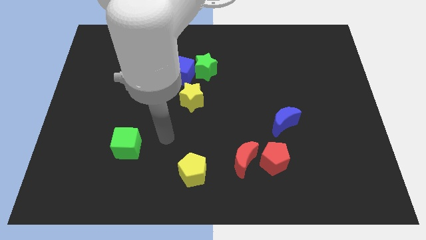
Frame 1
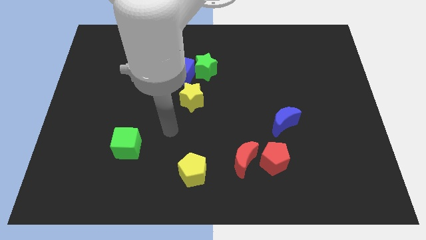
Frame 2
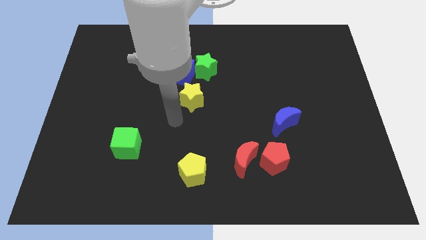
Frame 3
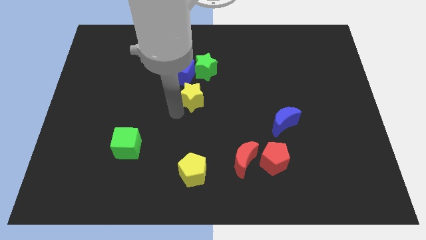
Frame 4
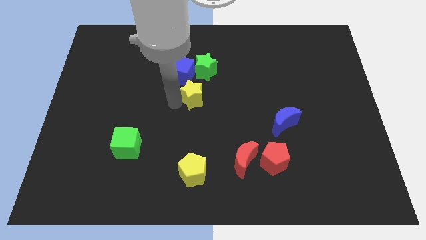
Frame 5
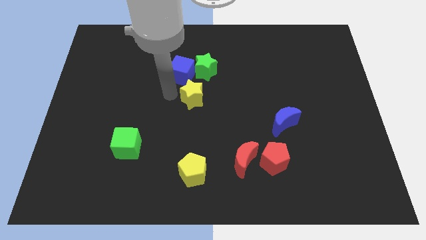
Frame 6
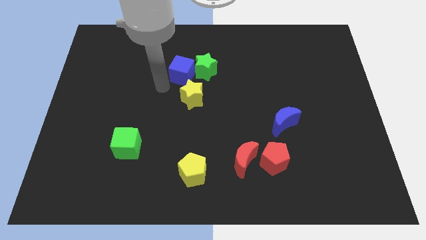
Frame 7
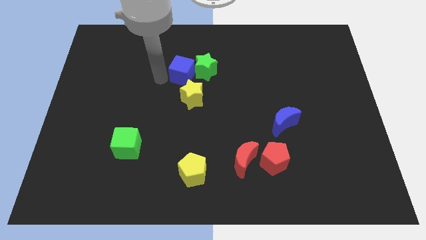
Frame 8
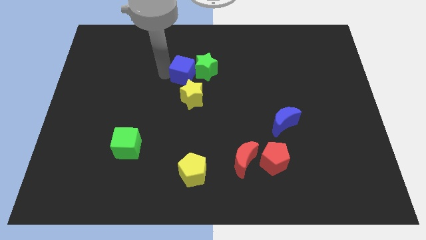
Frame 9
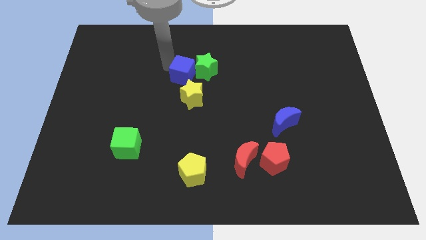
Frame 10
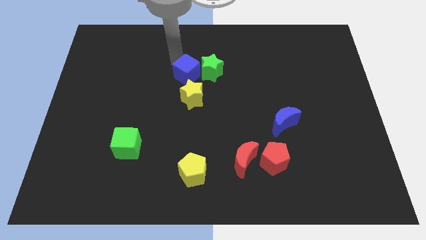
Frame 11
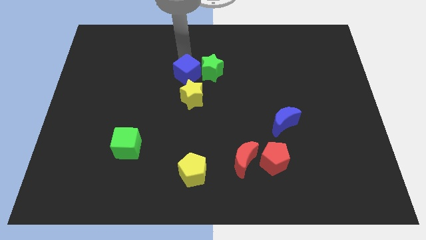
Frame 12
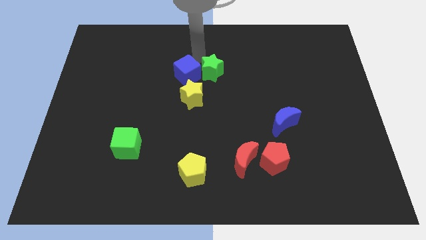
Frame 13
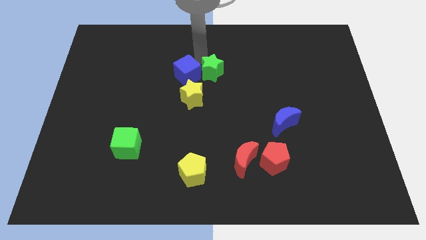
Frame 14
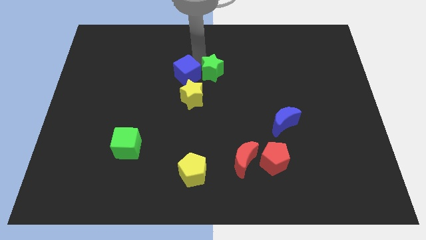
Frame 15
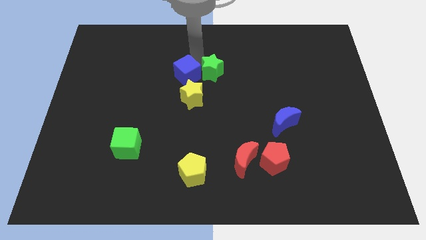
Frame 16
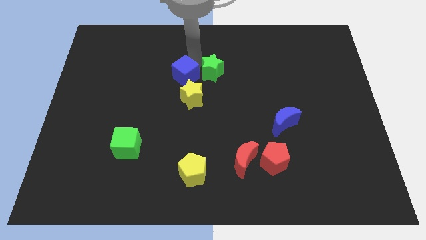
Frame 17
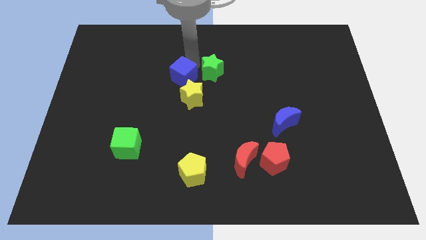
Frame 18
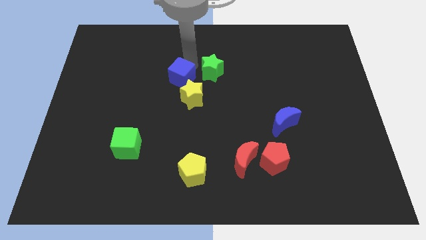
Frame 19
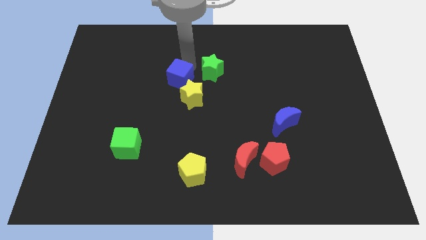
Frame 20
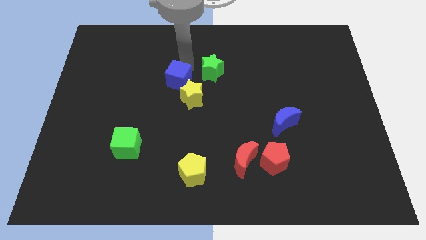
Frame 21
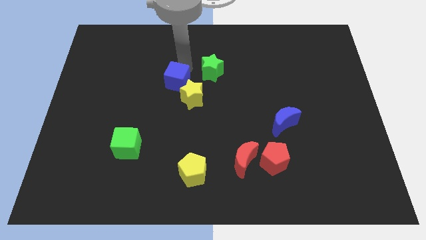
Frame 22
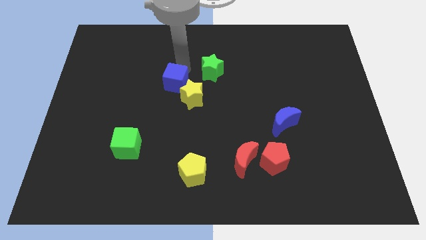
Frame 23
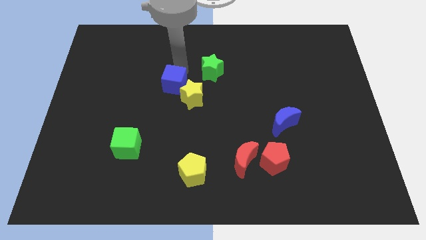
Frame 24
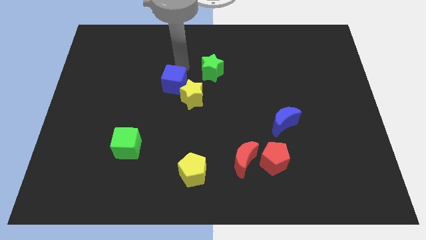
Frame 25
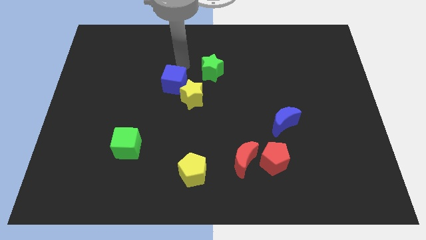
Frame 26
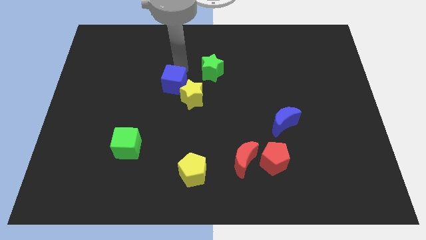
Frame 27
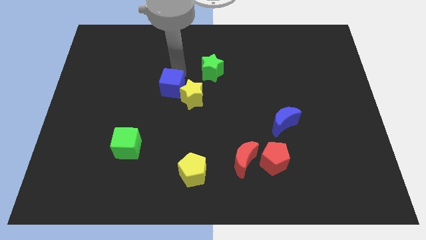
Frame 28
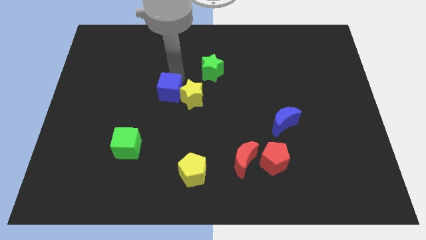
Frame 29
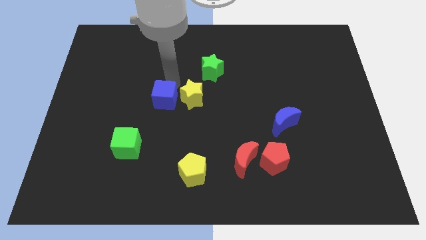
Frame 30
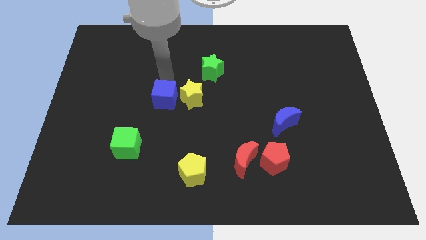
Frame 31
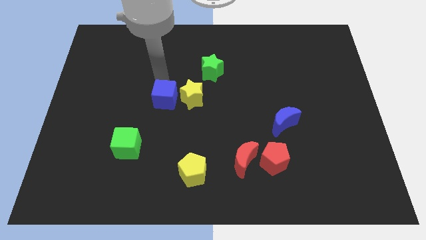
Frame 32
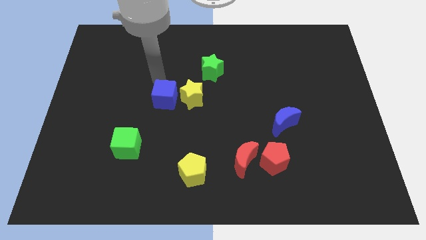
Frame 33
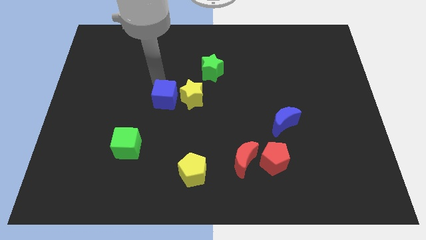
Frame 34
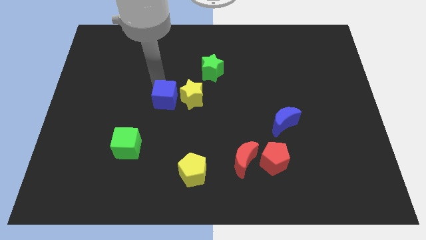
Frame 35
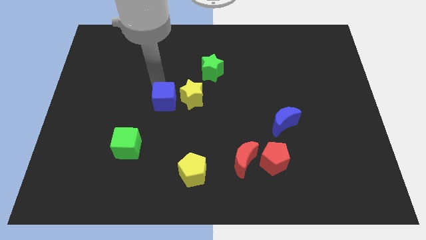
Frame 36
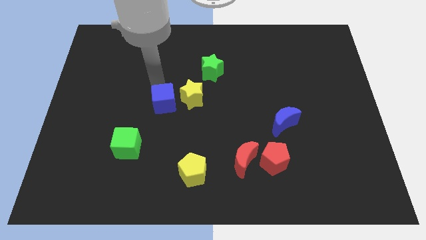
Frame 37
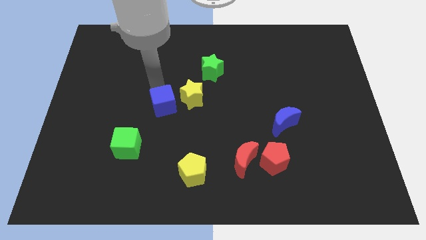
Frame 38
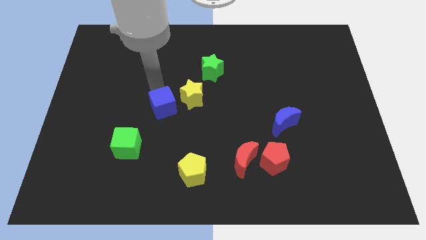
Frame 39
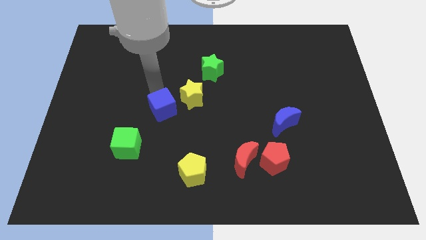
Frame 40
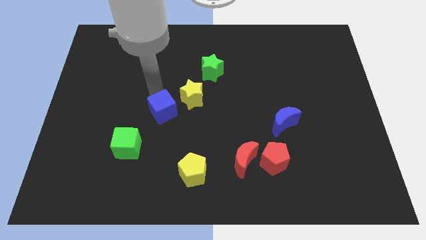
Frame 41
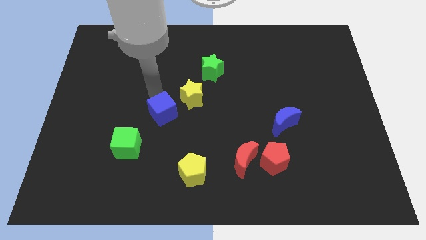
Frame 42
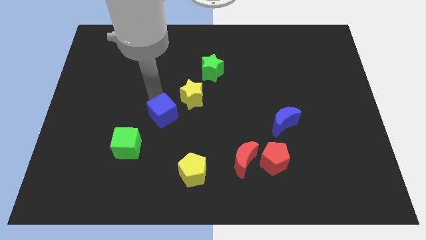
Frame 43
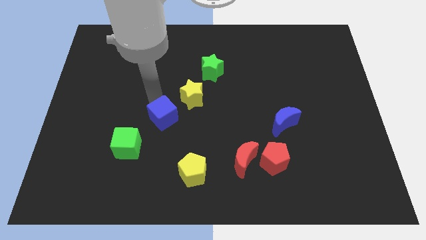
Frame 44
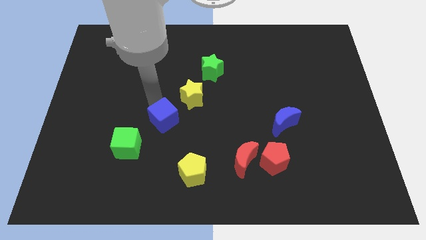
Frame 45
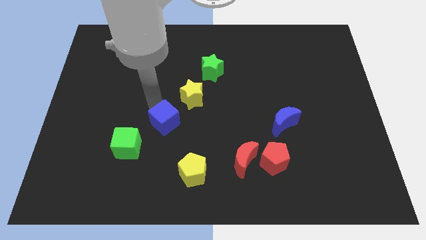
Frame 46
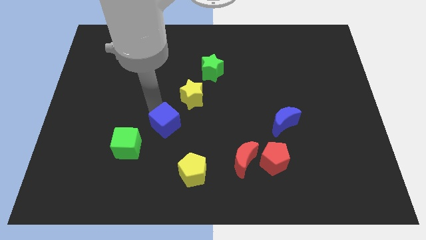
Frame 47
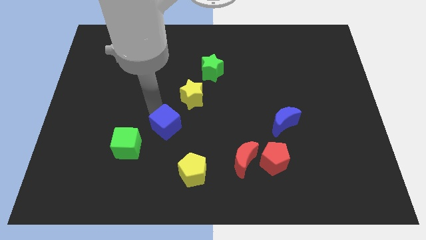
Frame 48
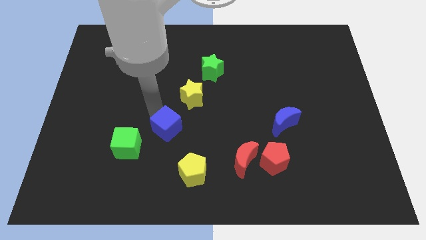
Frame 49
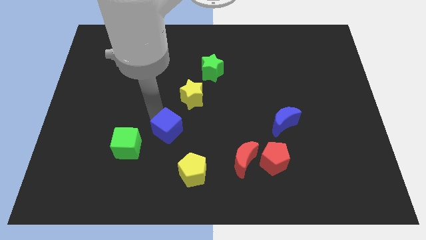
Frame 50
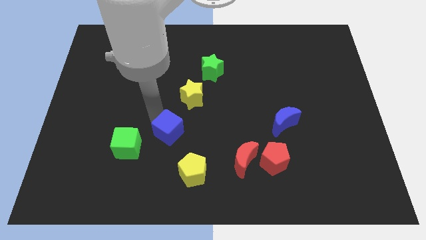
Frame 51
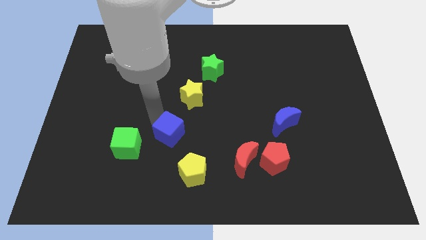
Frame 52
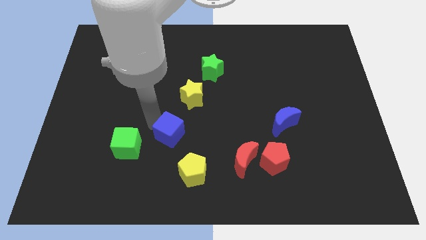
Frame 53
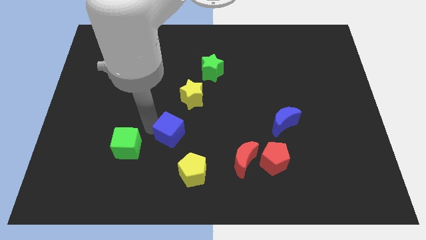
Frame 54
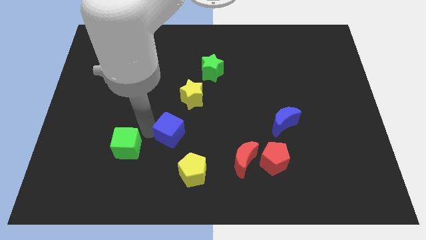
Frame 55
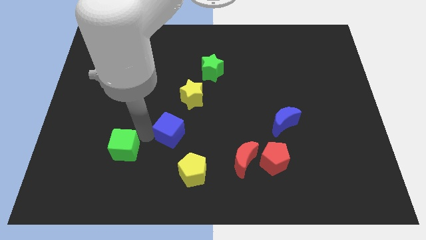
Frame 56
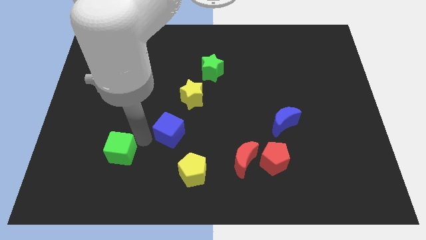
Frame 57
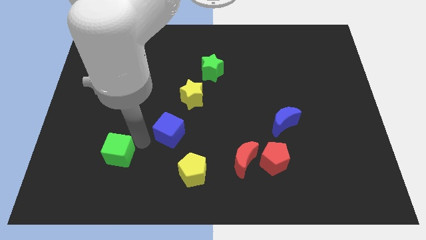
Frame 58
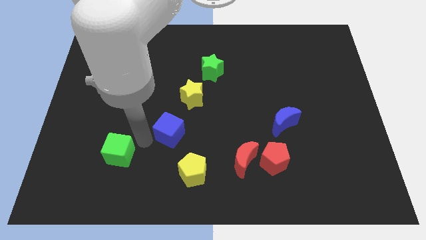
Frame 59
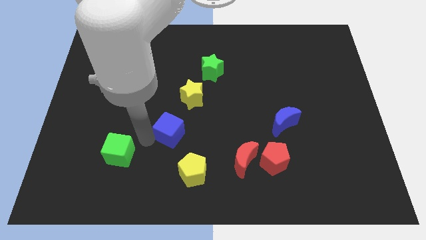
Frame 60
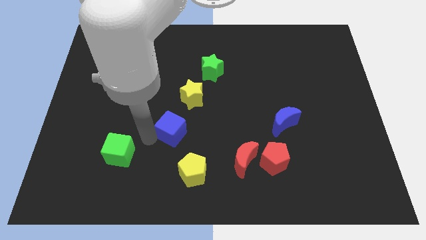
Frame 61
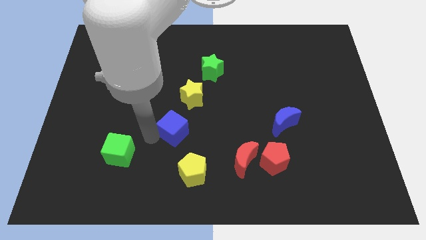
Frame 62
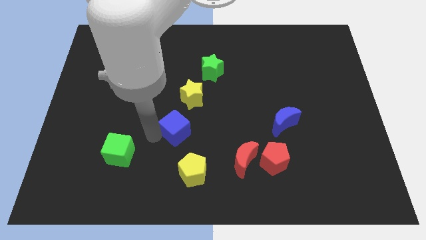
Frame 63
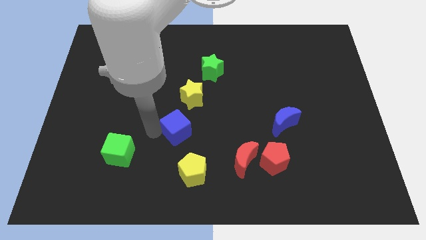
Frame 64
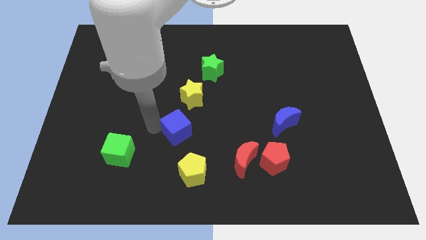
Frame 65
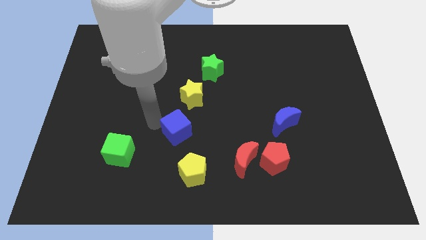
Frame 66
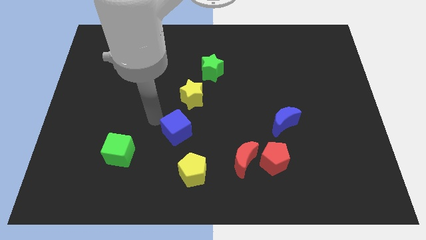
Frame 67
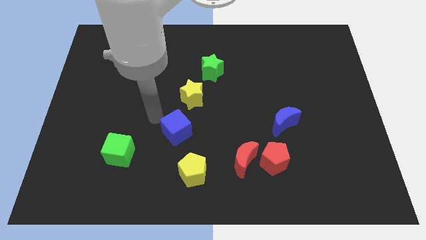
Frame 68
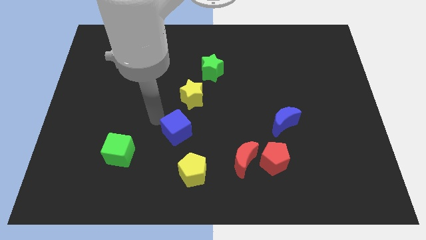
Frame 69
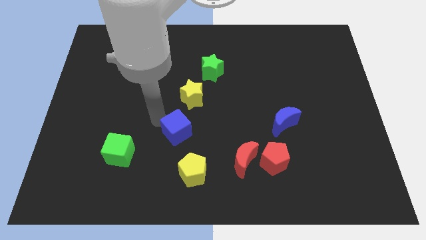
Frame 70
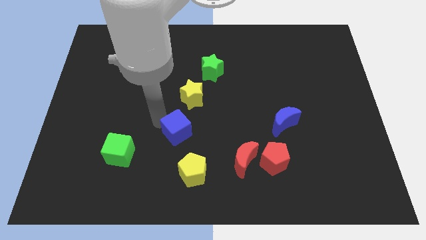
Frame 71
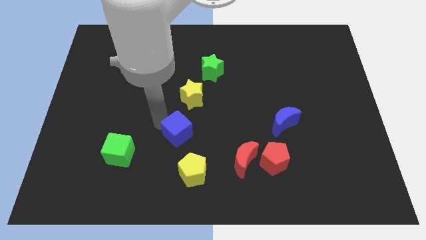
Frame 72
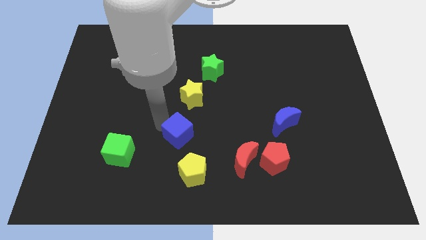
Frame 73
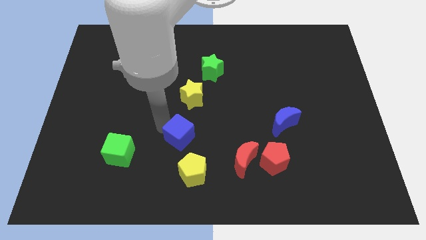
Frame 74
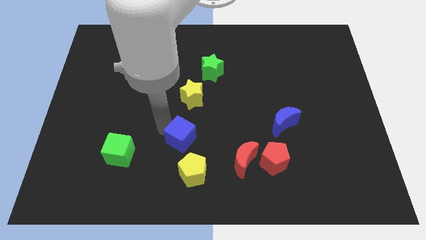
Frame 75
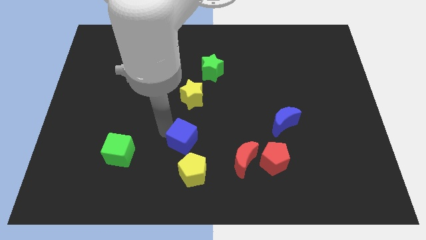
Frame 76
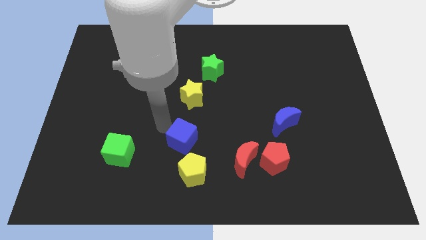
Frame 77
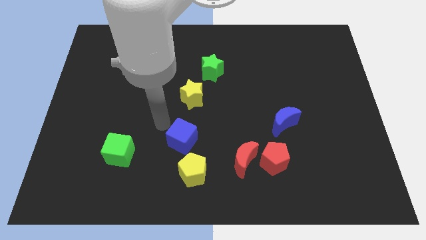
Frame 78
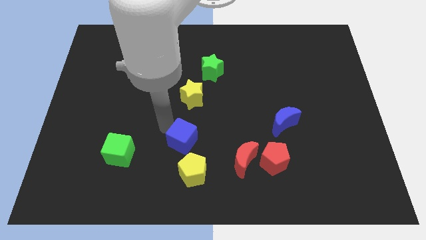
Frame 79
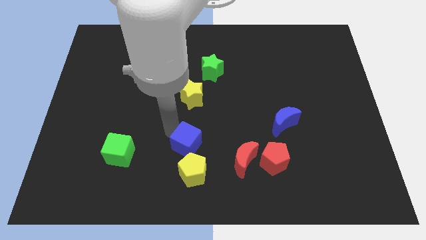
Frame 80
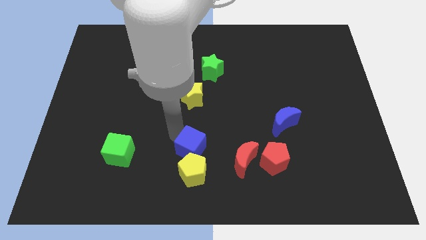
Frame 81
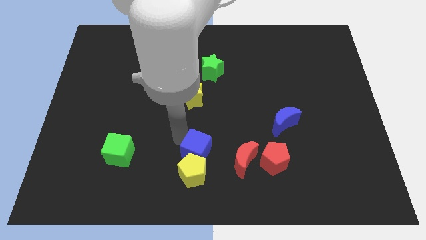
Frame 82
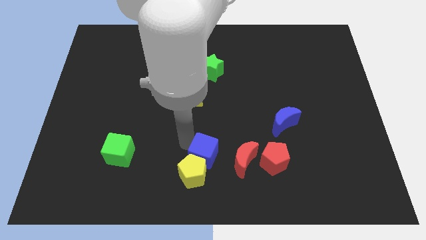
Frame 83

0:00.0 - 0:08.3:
put the blue cube to the bottom
